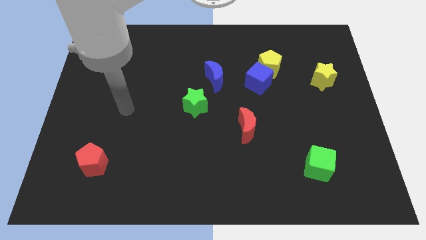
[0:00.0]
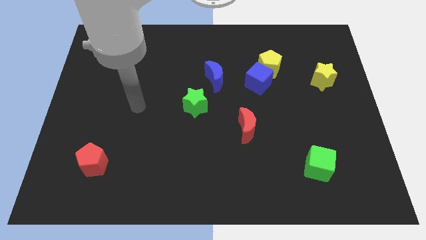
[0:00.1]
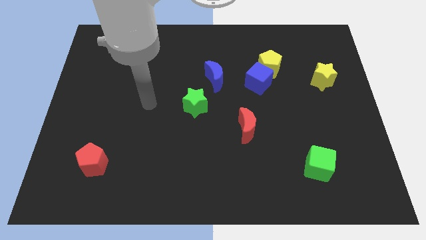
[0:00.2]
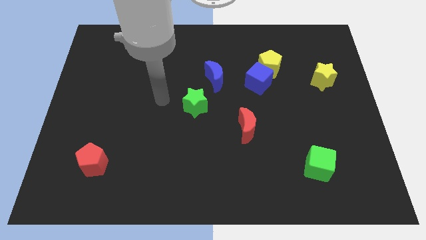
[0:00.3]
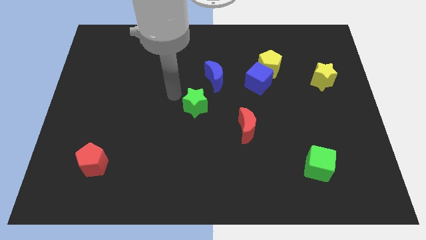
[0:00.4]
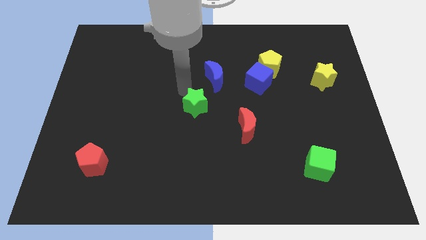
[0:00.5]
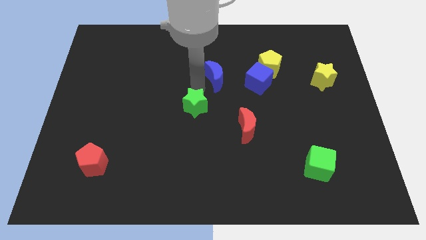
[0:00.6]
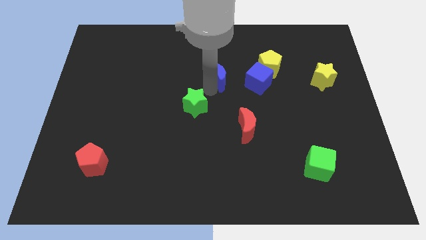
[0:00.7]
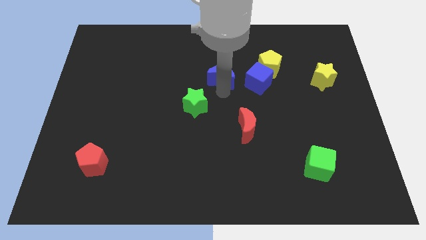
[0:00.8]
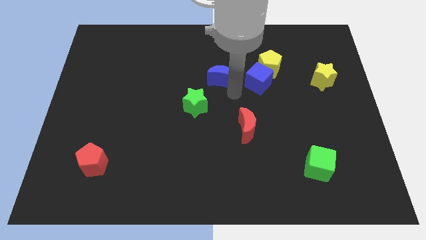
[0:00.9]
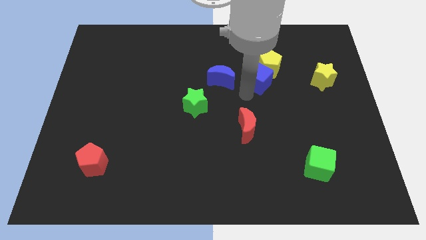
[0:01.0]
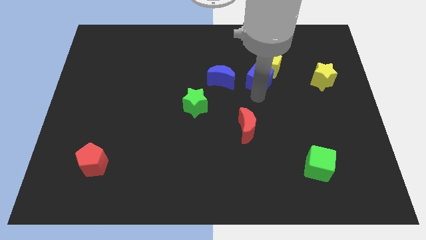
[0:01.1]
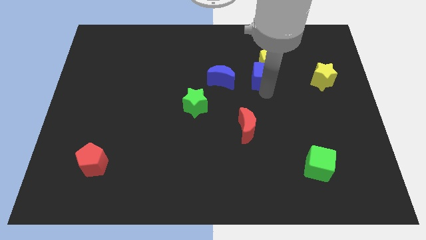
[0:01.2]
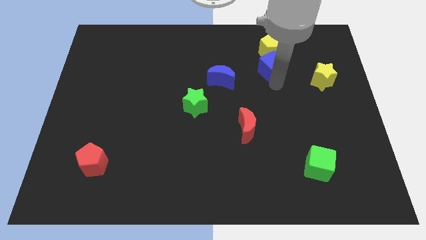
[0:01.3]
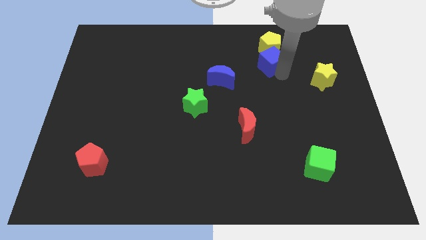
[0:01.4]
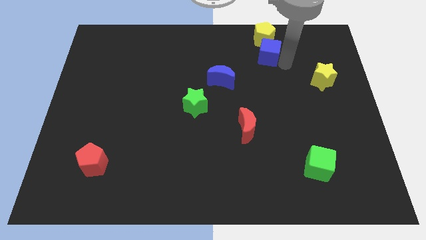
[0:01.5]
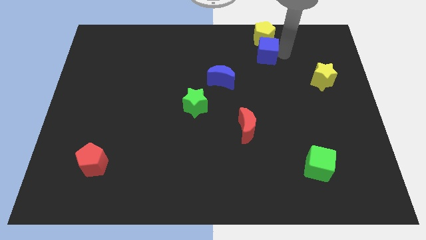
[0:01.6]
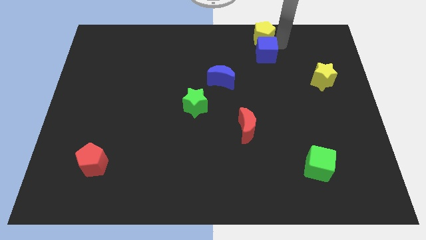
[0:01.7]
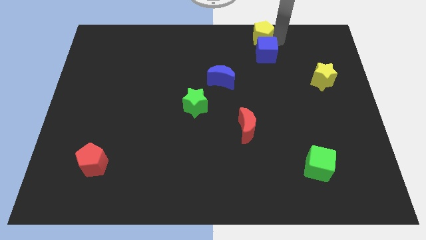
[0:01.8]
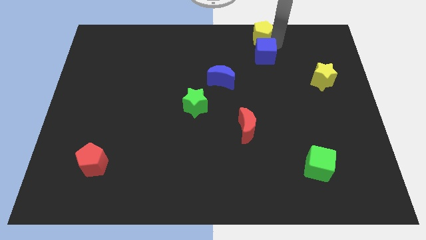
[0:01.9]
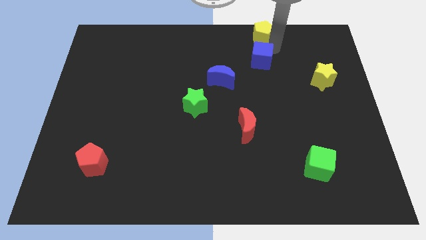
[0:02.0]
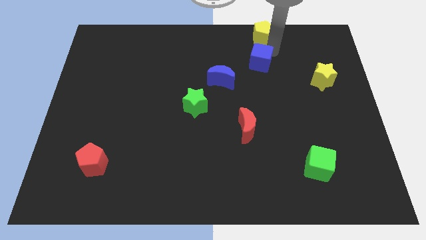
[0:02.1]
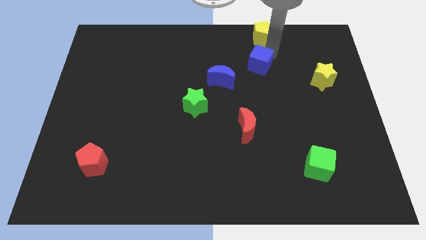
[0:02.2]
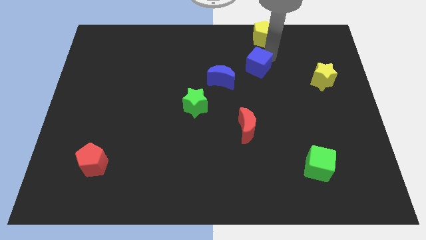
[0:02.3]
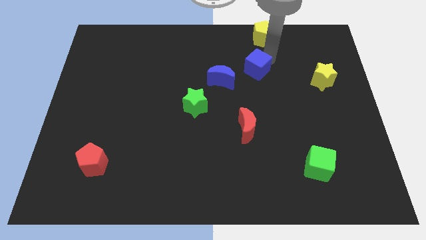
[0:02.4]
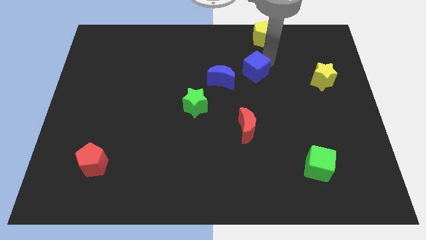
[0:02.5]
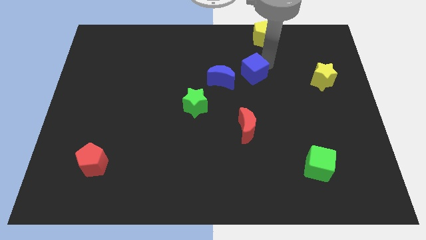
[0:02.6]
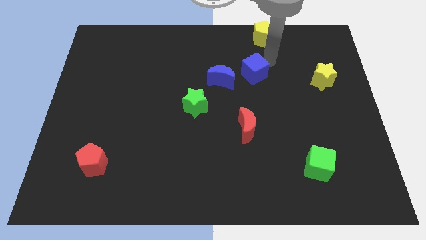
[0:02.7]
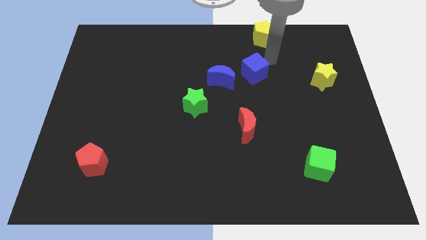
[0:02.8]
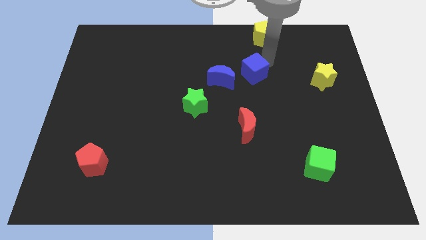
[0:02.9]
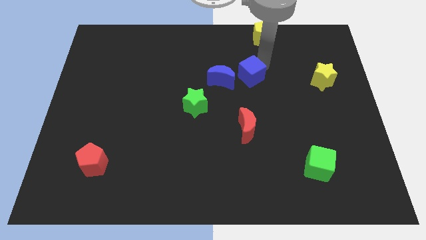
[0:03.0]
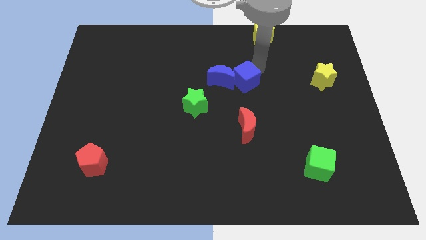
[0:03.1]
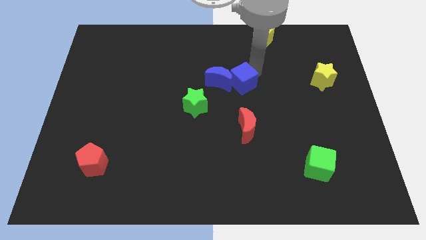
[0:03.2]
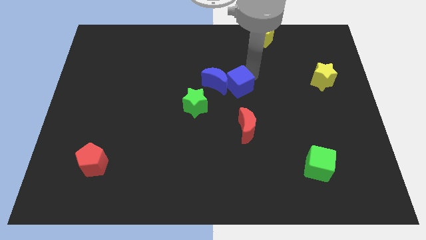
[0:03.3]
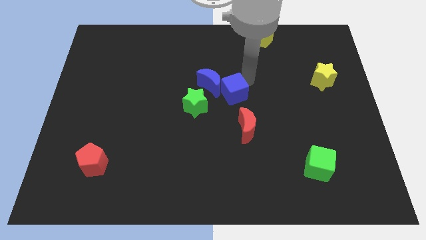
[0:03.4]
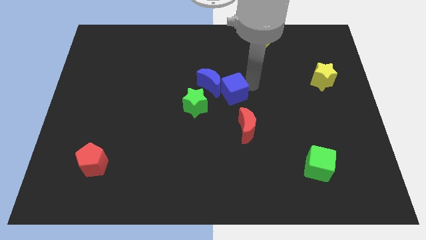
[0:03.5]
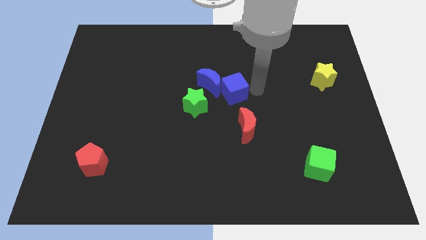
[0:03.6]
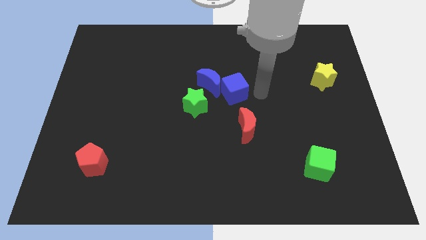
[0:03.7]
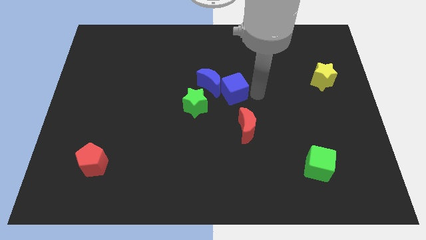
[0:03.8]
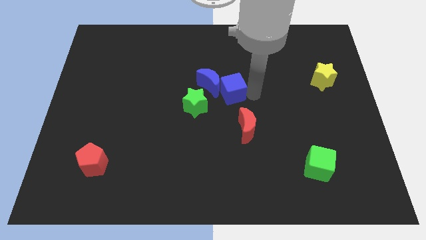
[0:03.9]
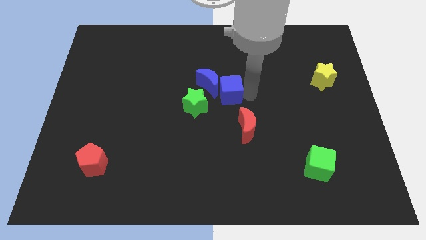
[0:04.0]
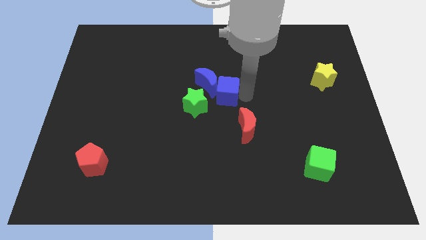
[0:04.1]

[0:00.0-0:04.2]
push the blue cube to the left somewhat

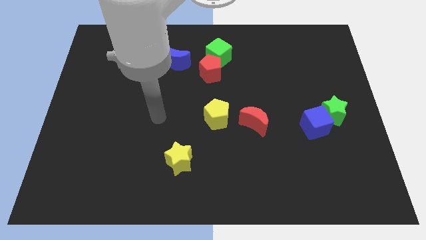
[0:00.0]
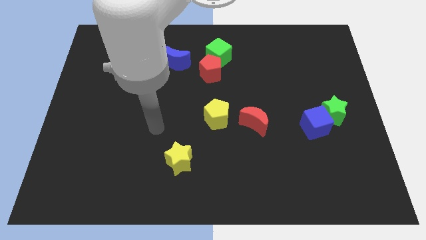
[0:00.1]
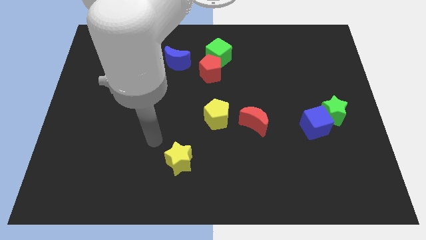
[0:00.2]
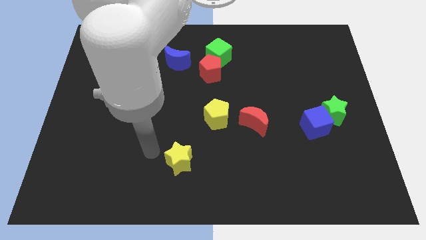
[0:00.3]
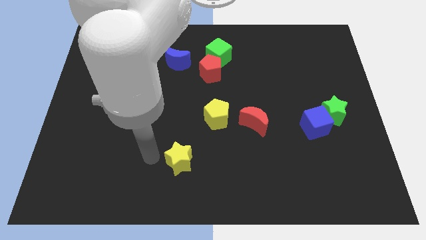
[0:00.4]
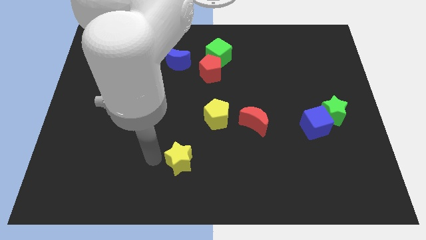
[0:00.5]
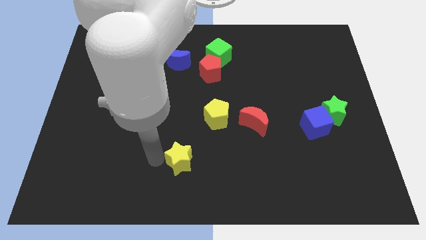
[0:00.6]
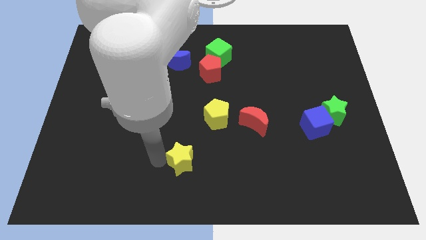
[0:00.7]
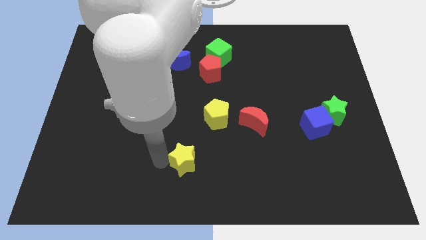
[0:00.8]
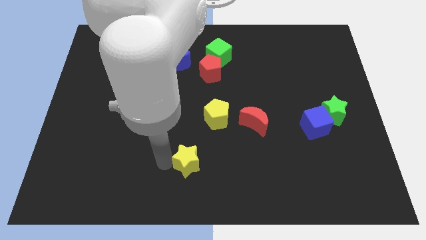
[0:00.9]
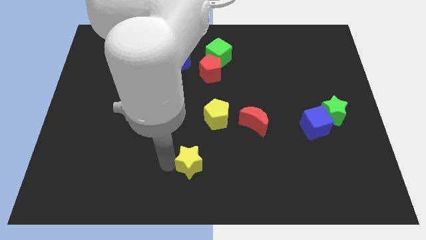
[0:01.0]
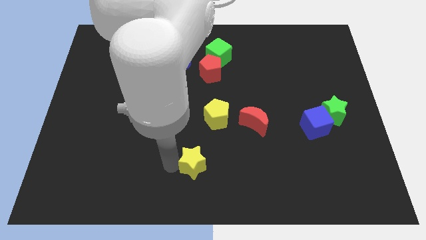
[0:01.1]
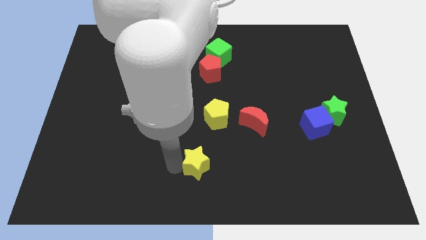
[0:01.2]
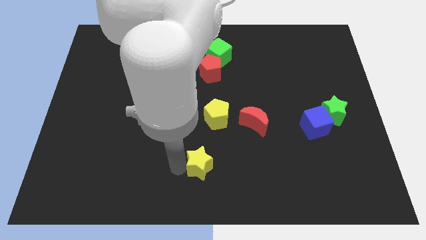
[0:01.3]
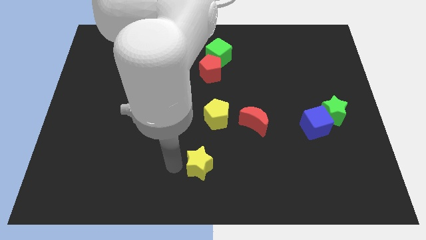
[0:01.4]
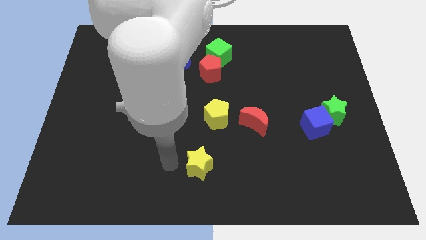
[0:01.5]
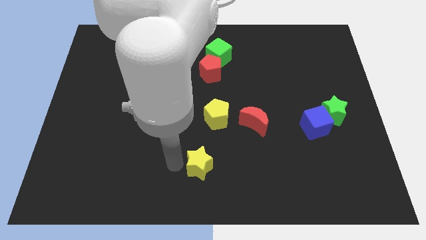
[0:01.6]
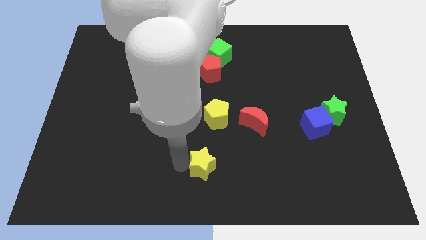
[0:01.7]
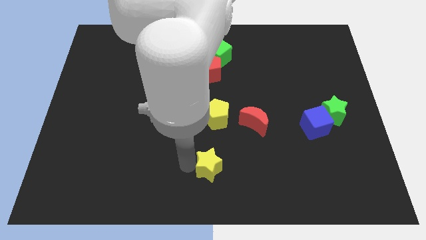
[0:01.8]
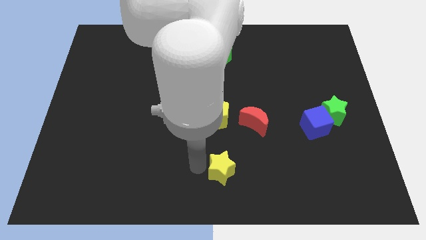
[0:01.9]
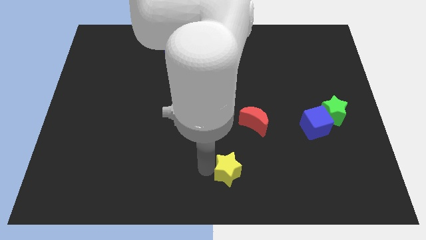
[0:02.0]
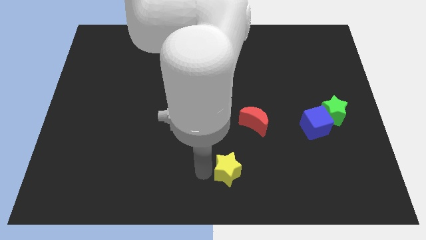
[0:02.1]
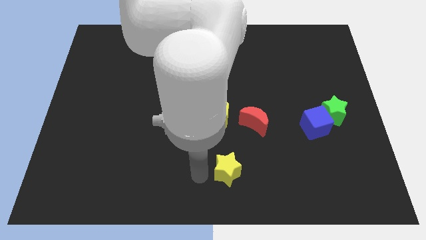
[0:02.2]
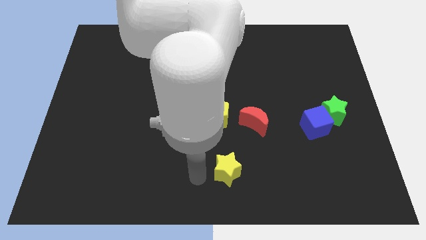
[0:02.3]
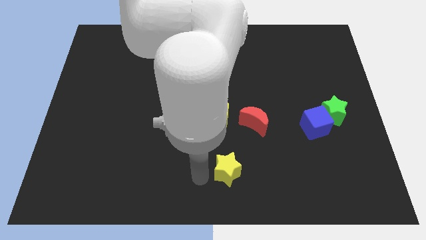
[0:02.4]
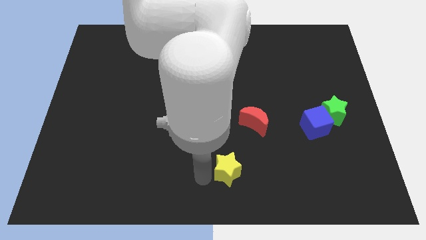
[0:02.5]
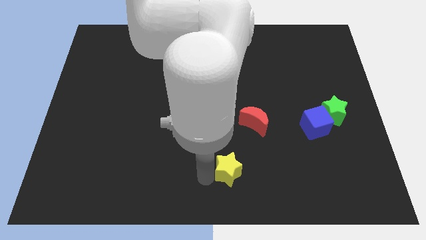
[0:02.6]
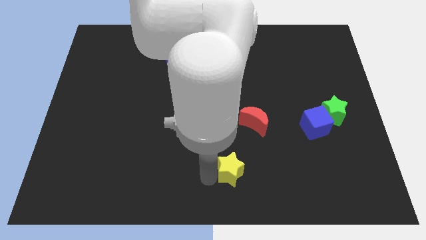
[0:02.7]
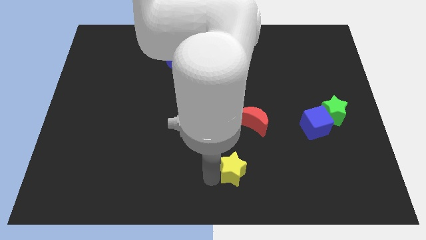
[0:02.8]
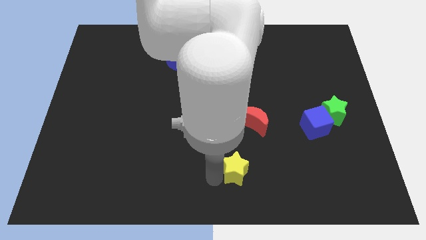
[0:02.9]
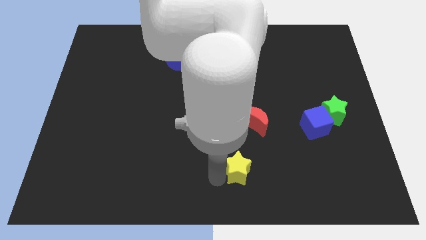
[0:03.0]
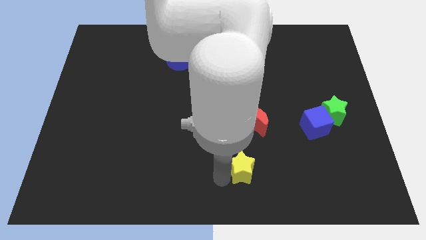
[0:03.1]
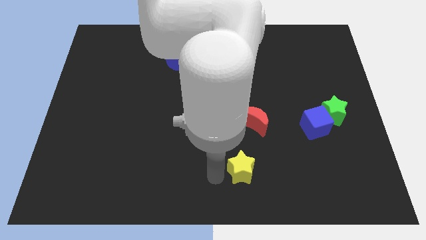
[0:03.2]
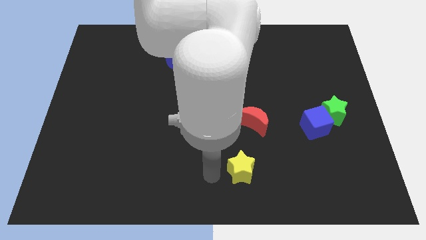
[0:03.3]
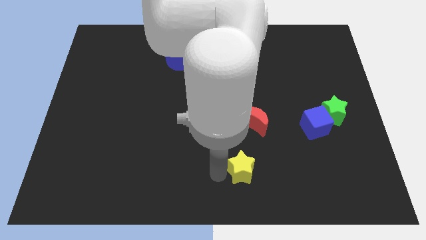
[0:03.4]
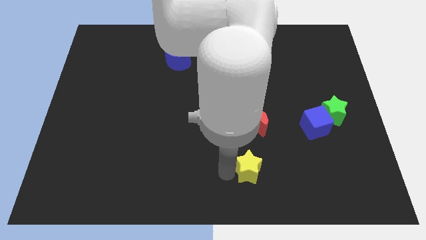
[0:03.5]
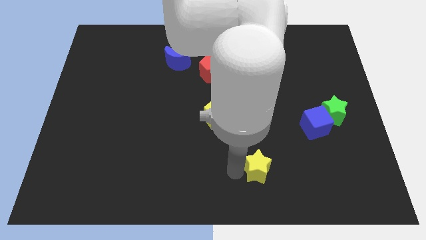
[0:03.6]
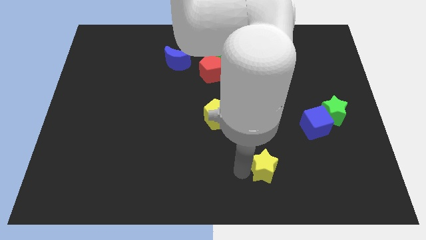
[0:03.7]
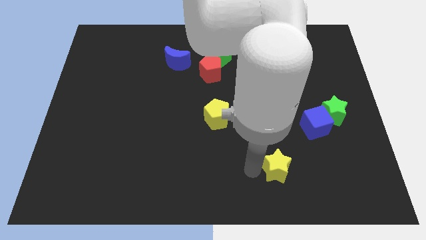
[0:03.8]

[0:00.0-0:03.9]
move the yellow star to the right

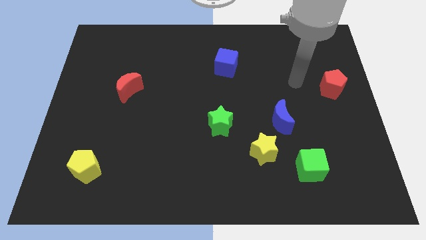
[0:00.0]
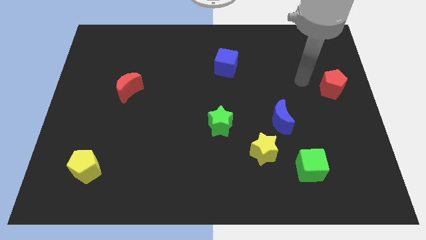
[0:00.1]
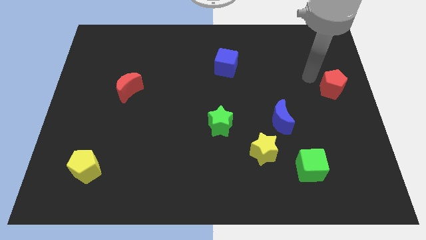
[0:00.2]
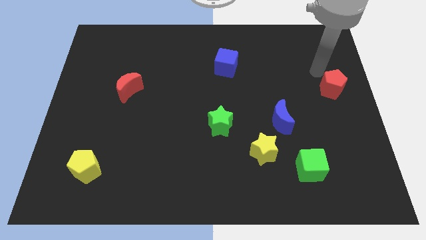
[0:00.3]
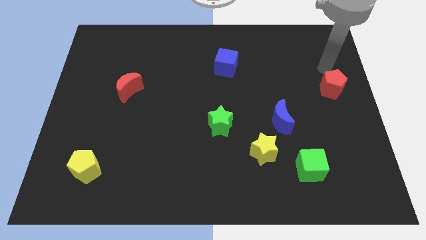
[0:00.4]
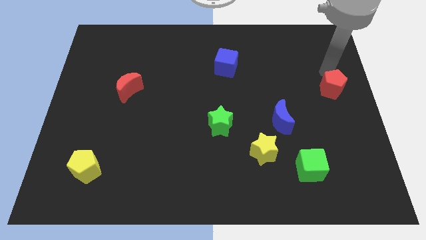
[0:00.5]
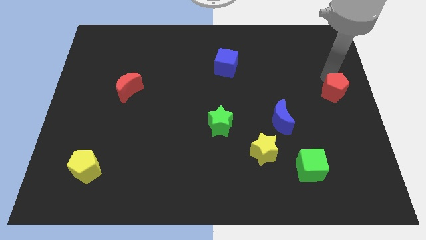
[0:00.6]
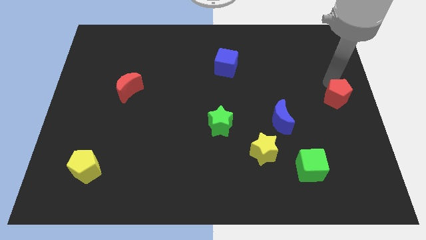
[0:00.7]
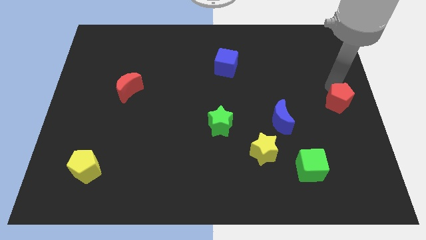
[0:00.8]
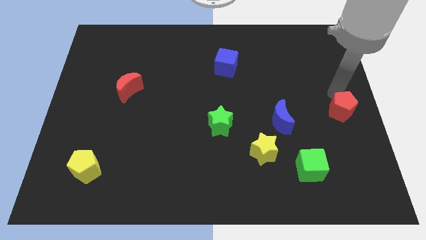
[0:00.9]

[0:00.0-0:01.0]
move the red pentagon slightly down
